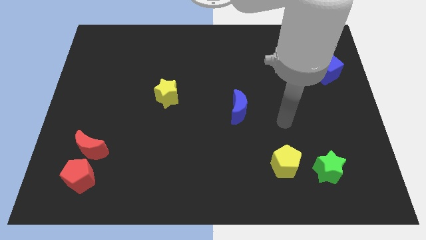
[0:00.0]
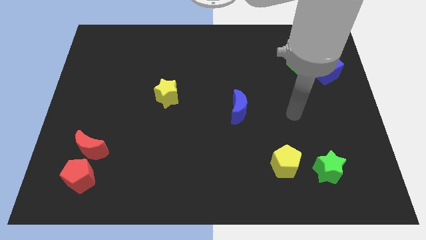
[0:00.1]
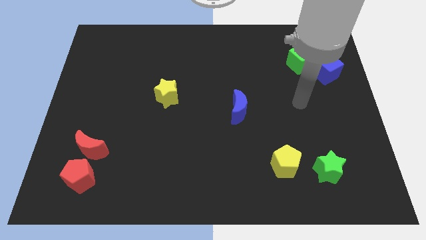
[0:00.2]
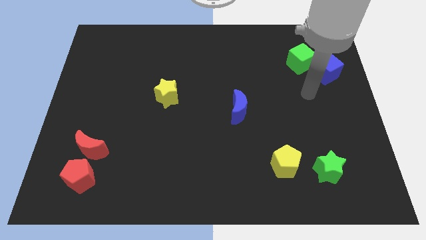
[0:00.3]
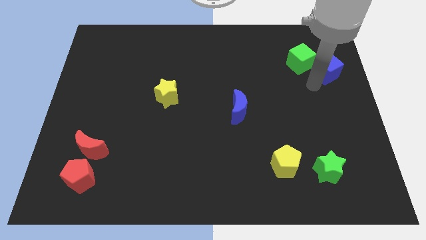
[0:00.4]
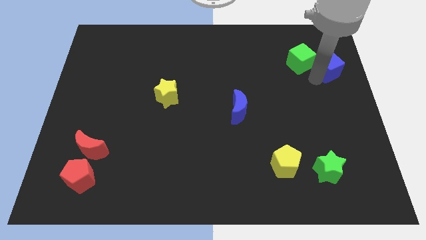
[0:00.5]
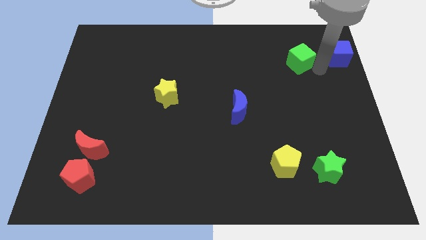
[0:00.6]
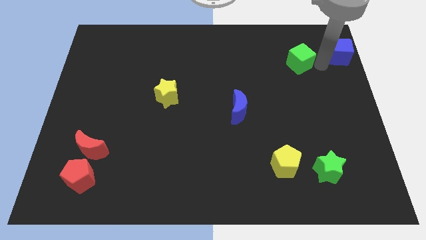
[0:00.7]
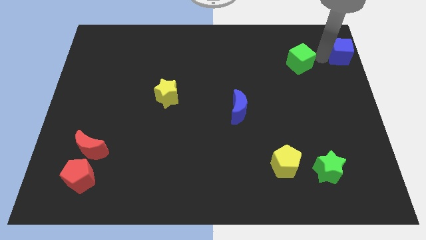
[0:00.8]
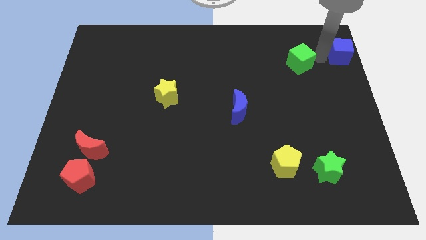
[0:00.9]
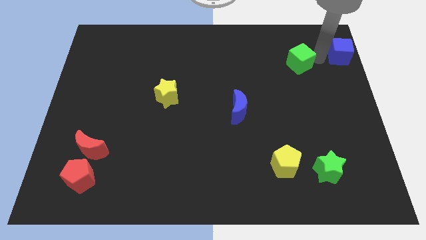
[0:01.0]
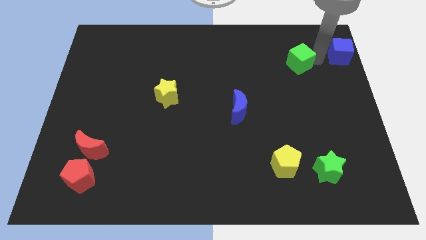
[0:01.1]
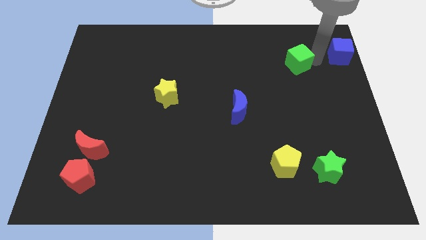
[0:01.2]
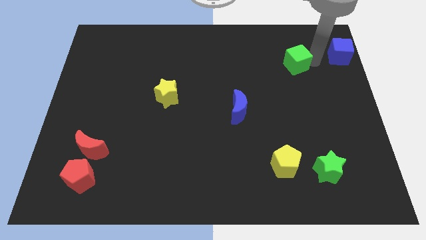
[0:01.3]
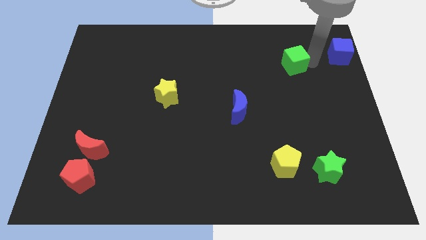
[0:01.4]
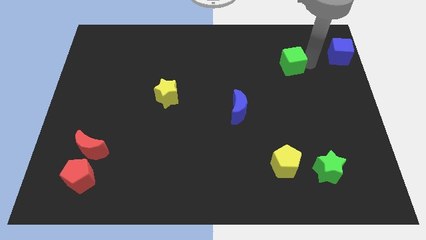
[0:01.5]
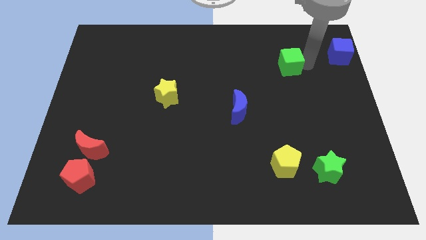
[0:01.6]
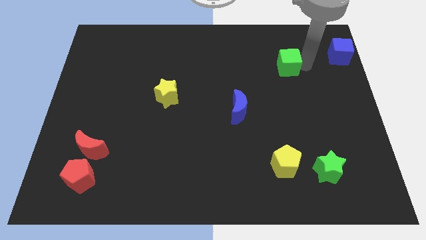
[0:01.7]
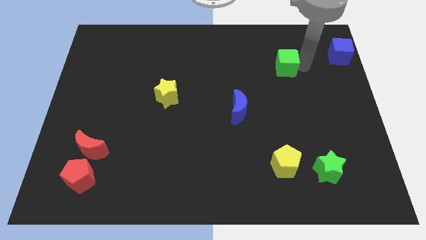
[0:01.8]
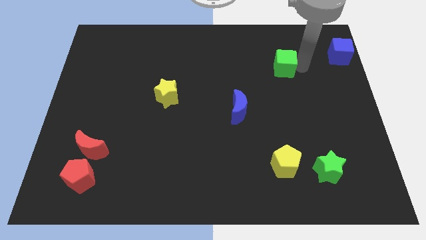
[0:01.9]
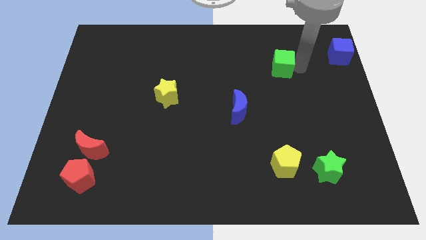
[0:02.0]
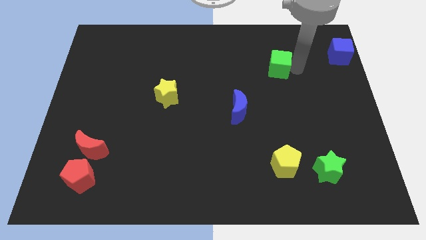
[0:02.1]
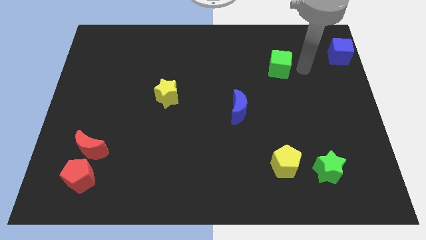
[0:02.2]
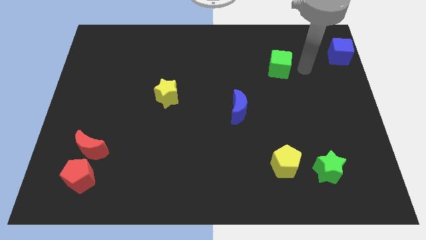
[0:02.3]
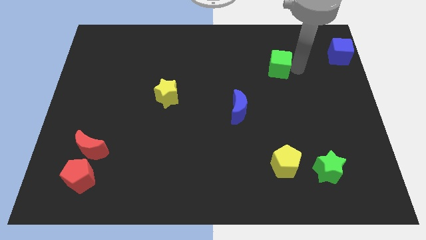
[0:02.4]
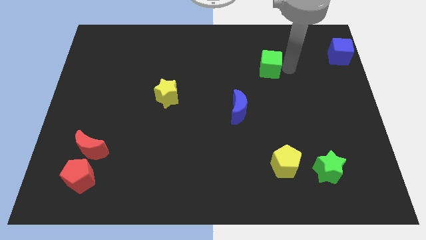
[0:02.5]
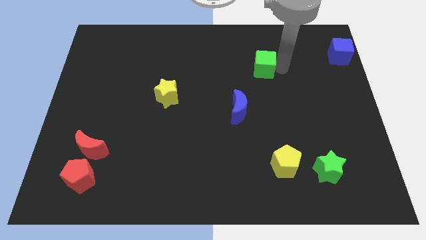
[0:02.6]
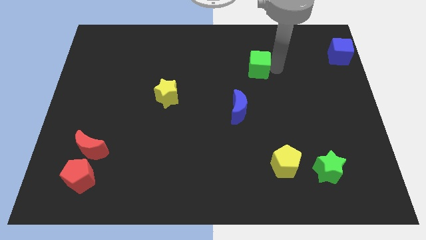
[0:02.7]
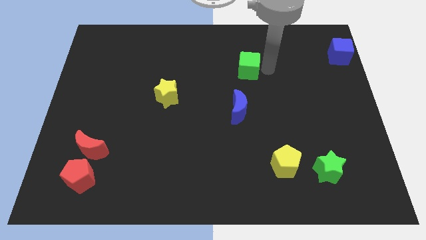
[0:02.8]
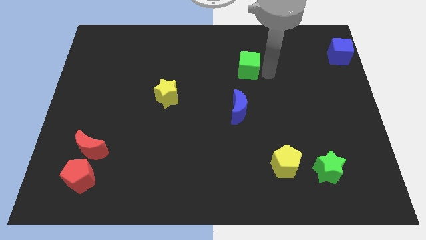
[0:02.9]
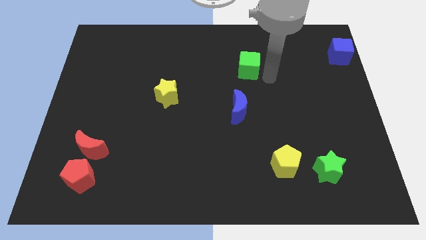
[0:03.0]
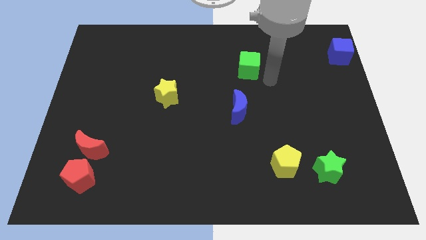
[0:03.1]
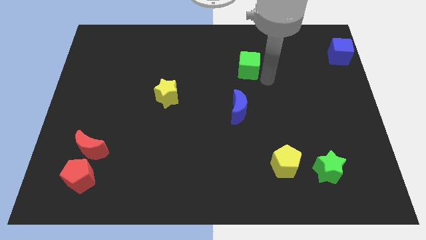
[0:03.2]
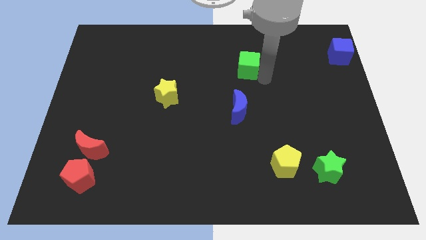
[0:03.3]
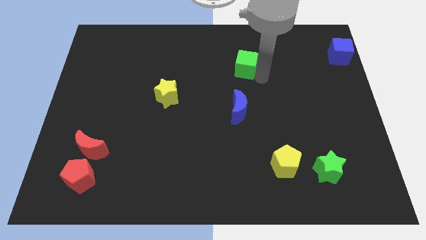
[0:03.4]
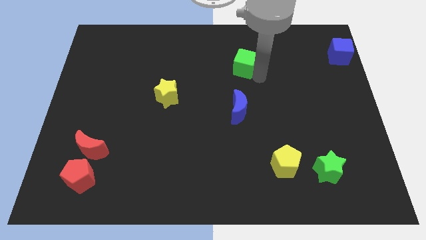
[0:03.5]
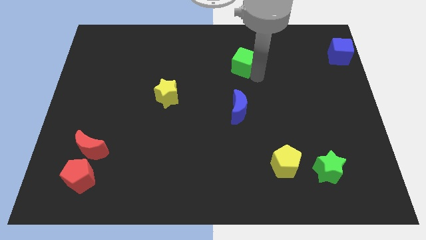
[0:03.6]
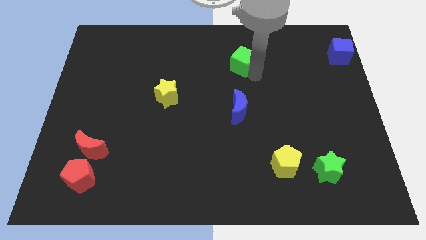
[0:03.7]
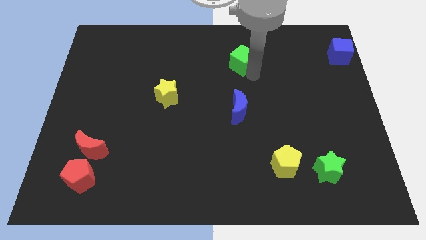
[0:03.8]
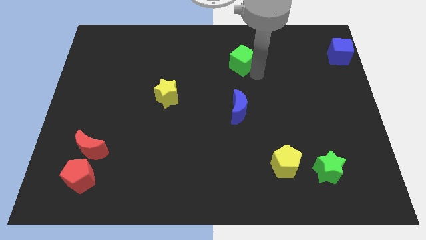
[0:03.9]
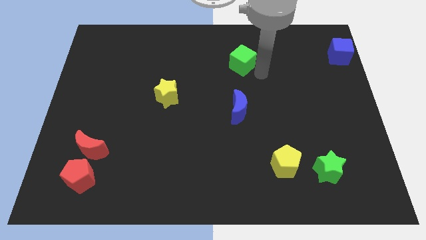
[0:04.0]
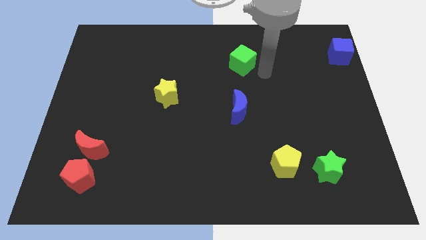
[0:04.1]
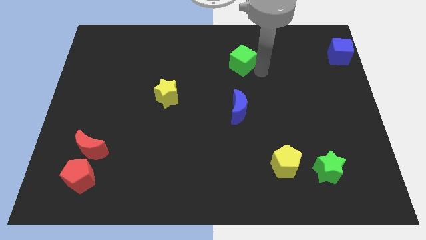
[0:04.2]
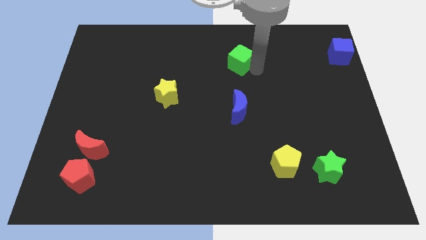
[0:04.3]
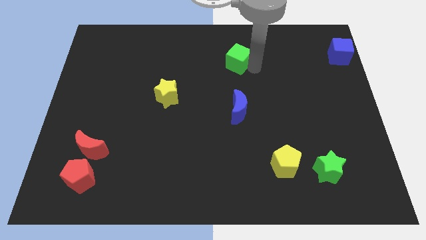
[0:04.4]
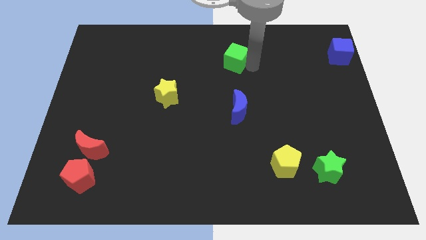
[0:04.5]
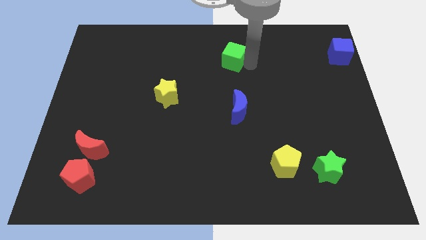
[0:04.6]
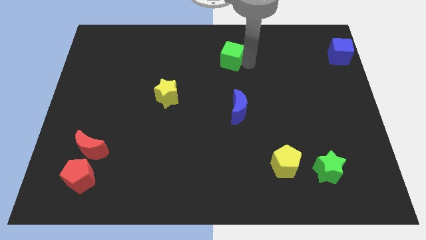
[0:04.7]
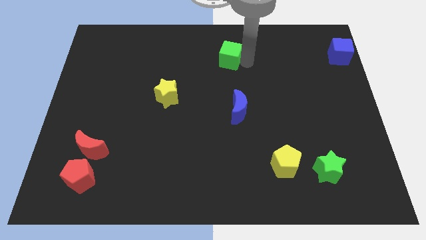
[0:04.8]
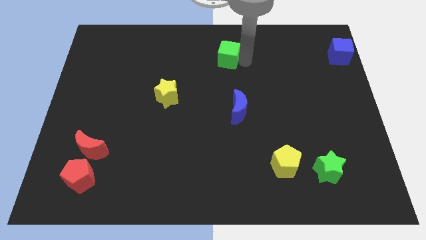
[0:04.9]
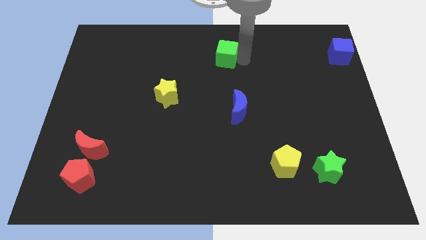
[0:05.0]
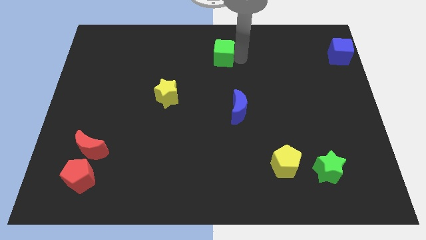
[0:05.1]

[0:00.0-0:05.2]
put the green cube to the top side
